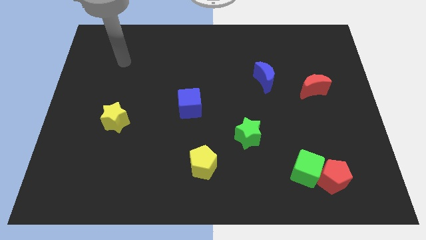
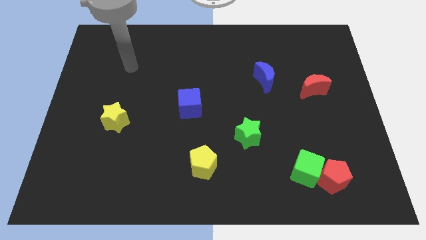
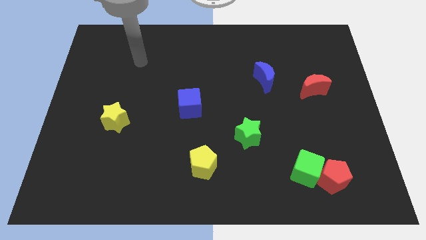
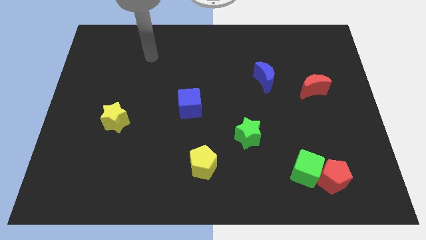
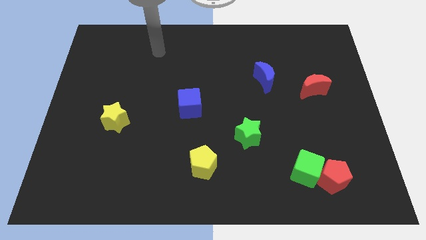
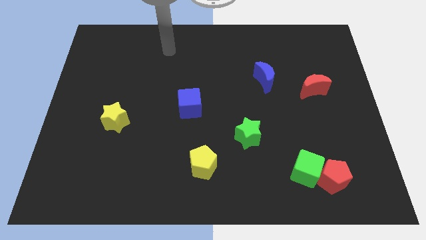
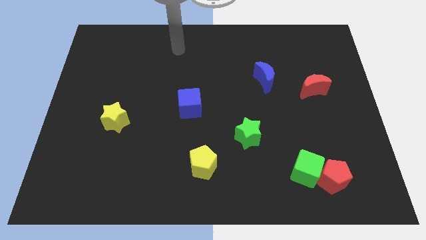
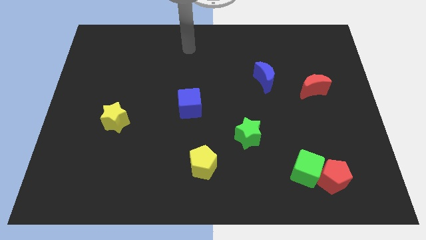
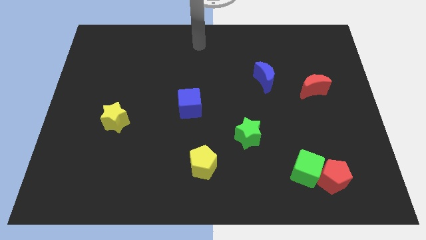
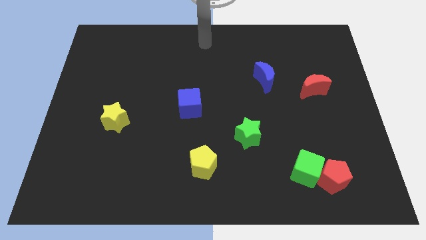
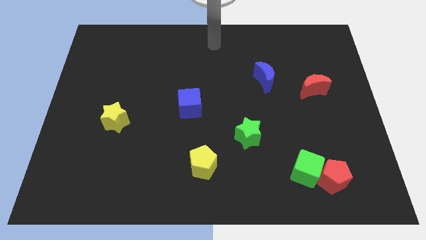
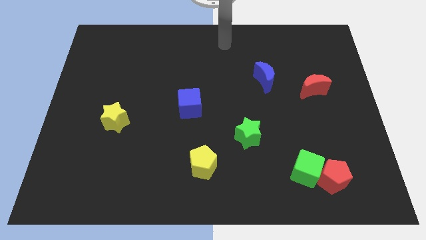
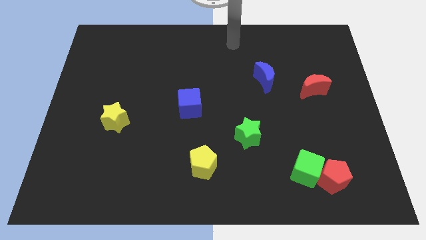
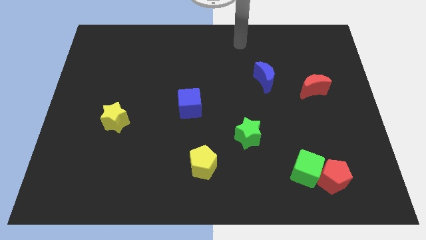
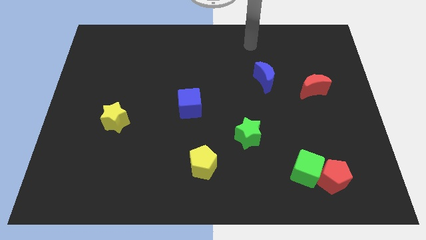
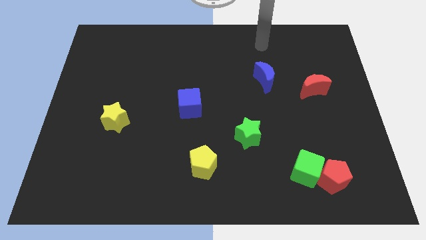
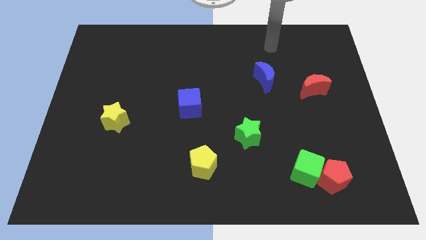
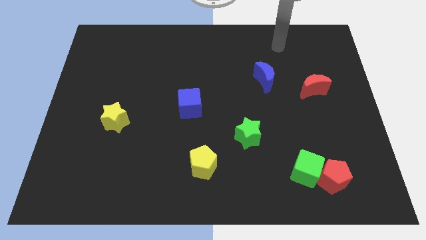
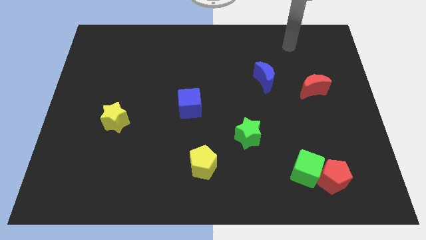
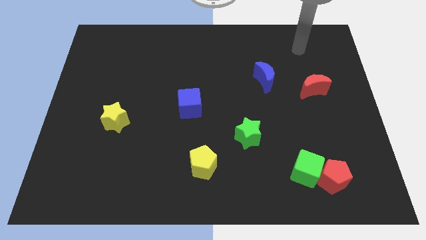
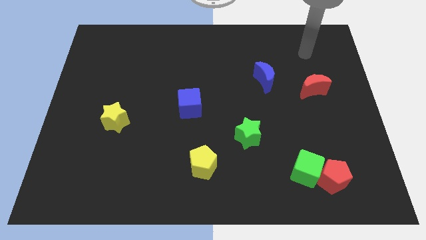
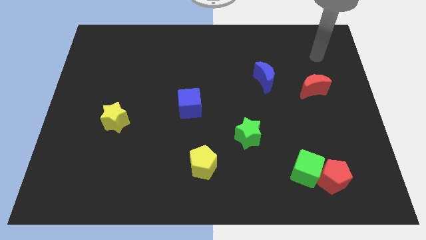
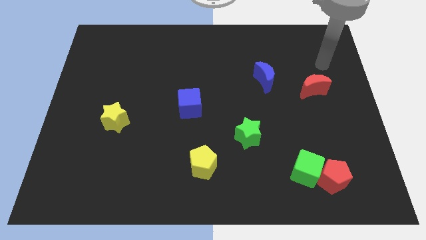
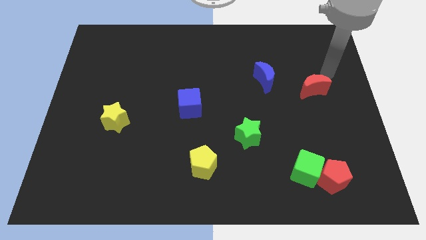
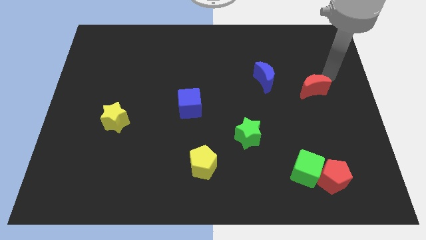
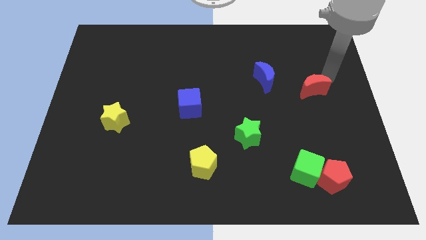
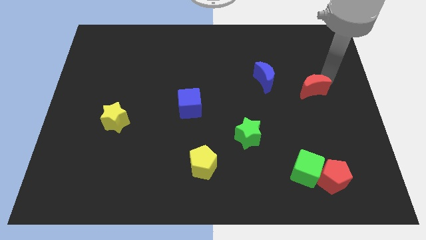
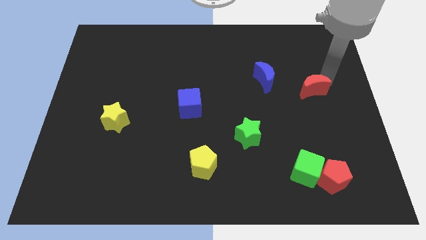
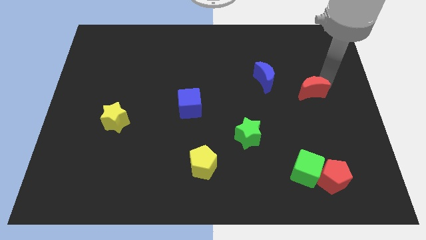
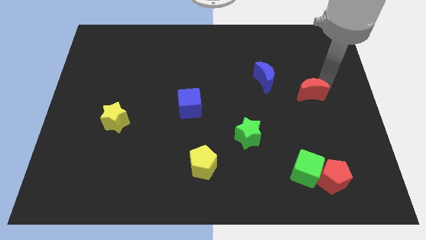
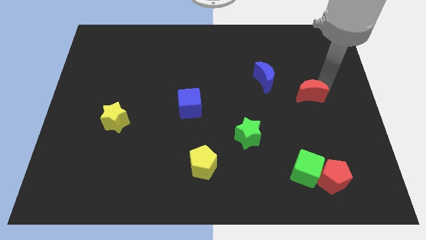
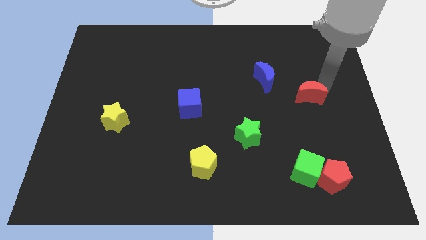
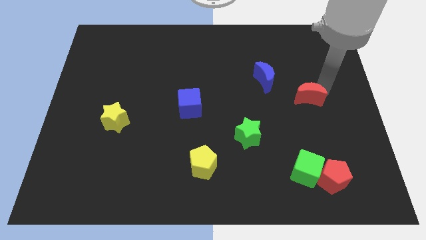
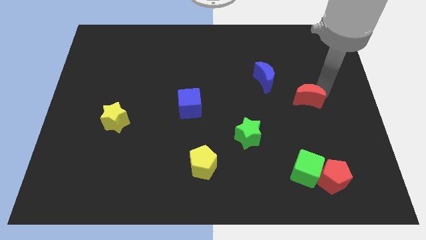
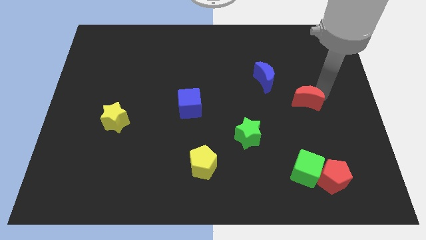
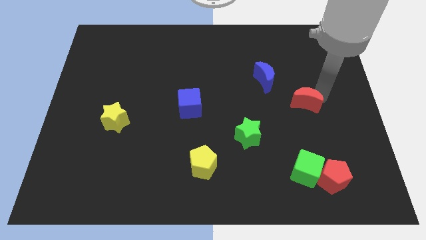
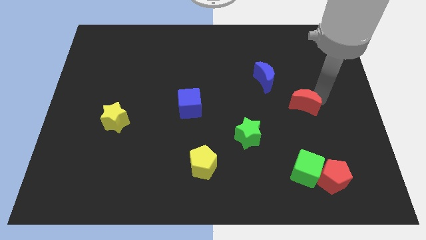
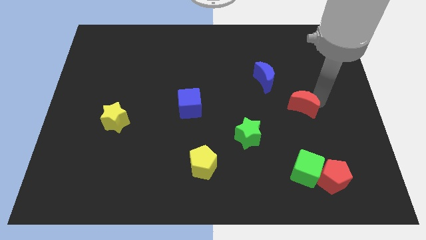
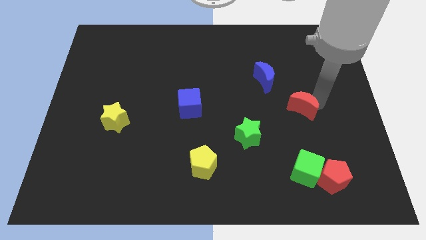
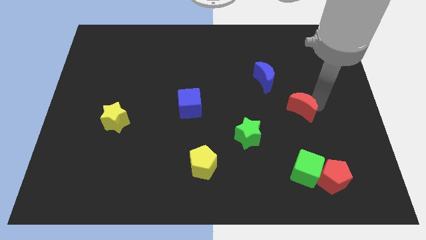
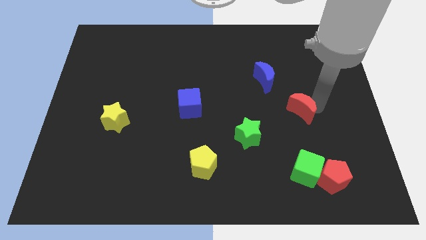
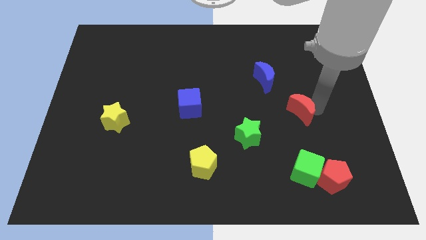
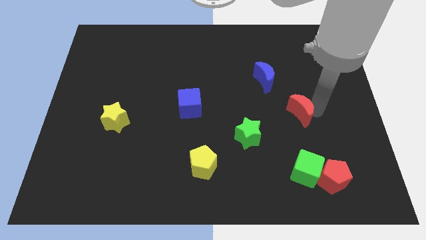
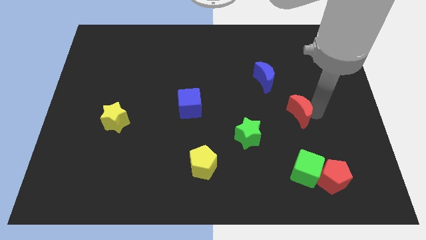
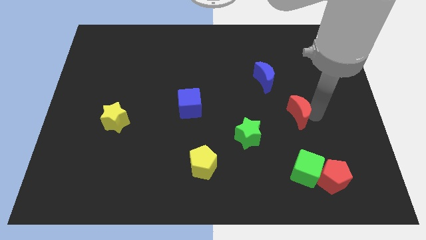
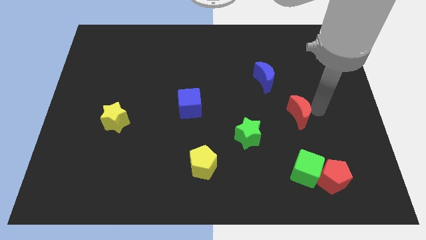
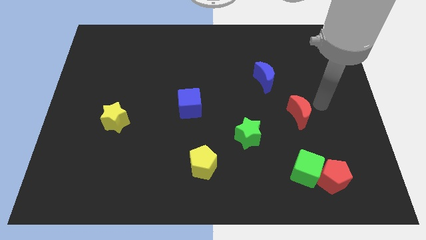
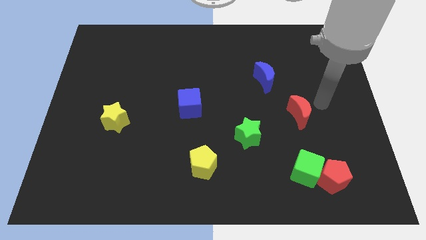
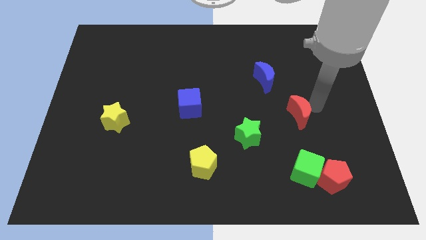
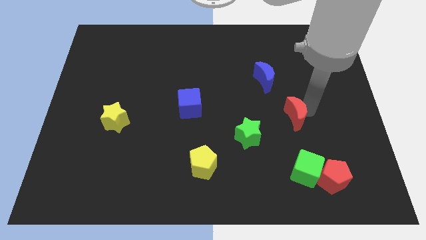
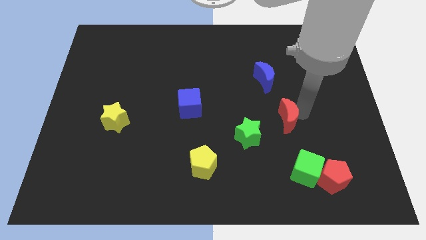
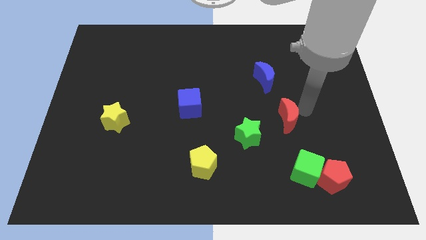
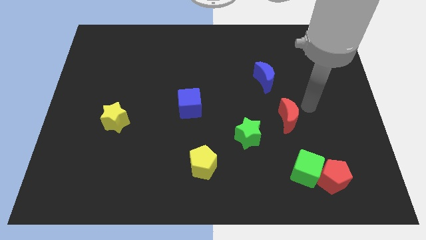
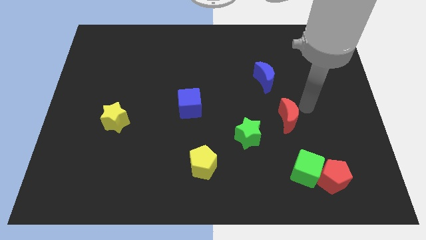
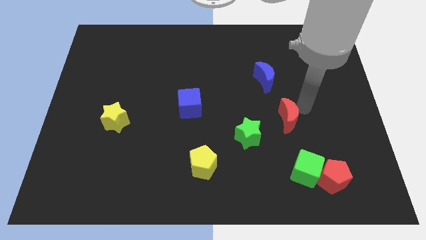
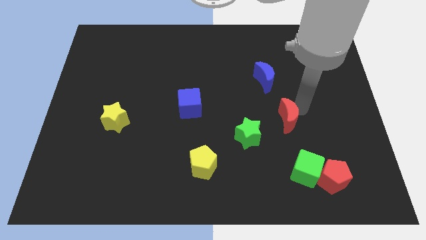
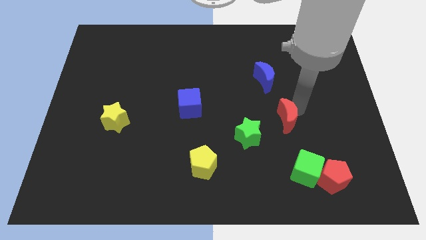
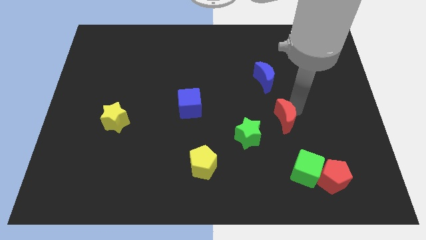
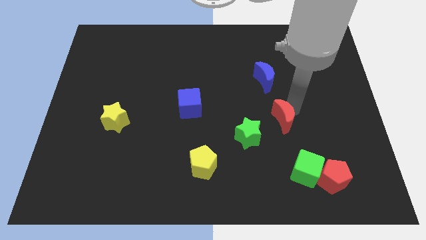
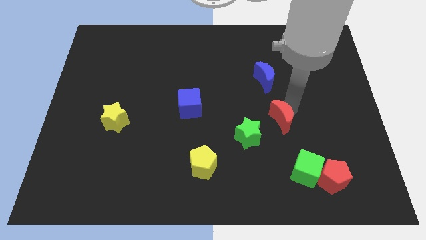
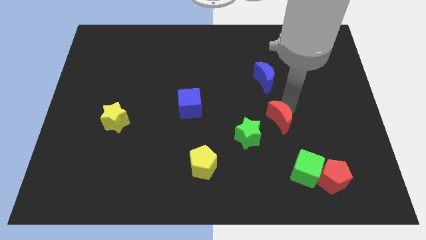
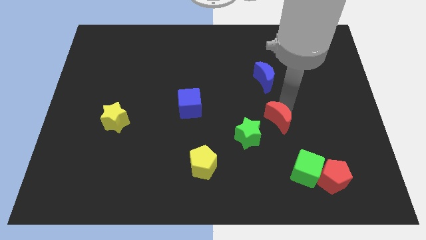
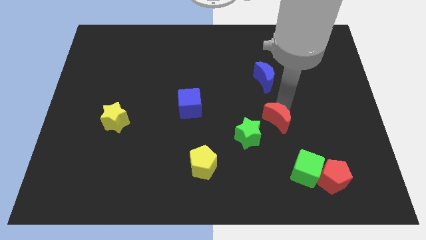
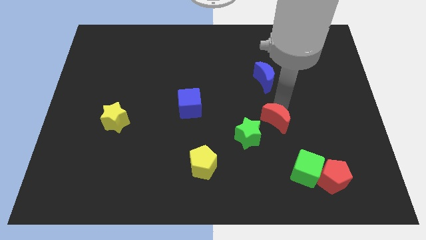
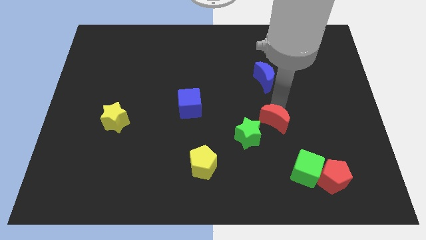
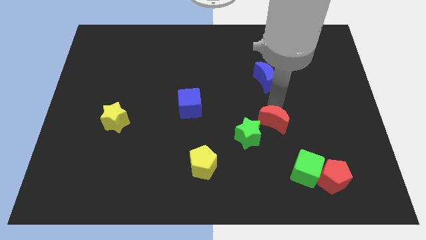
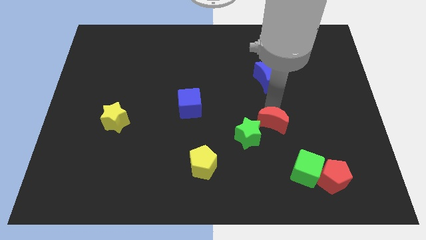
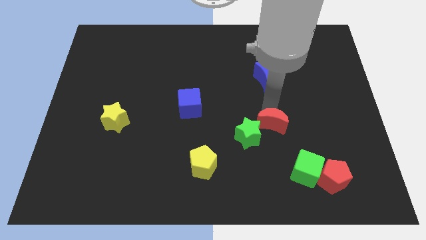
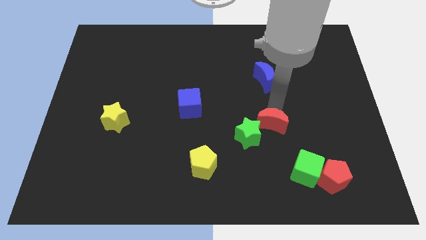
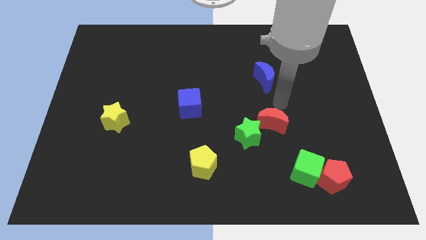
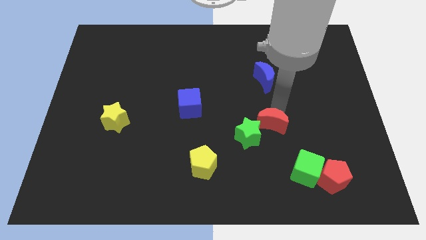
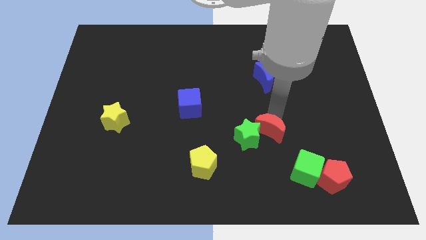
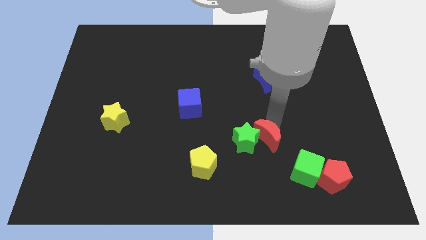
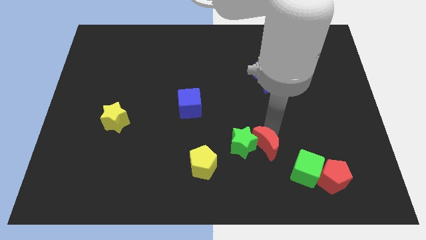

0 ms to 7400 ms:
move the red moon down and then left

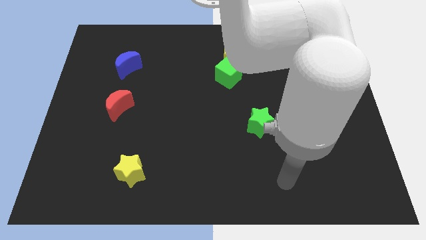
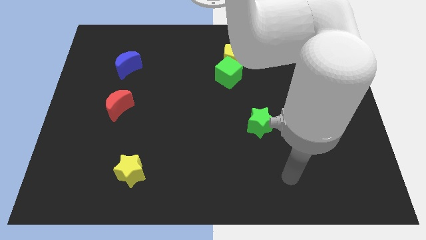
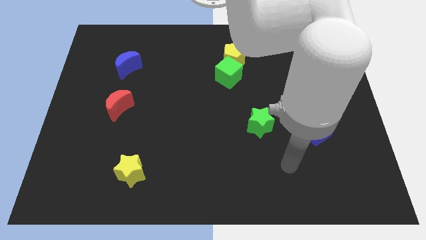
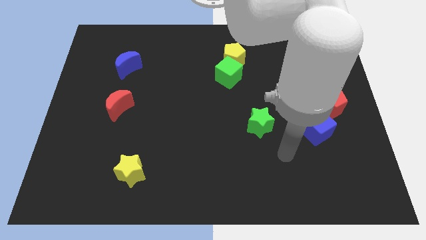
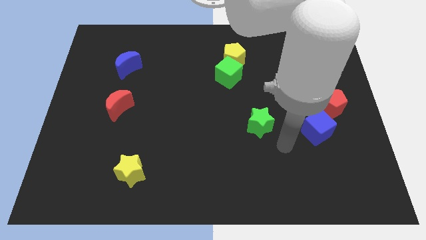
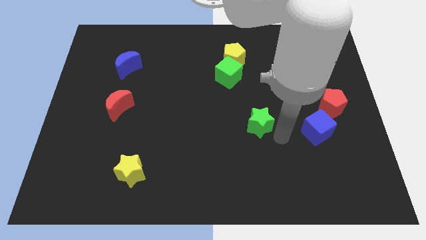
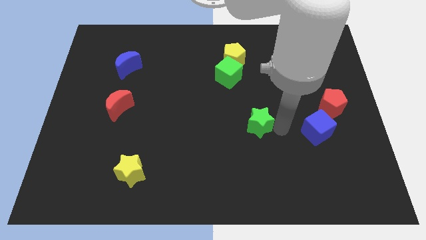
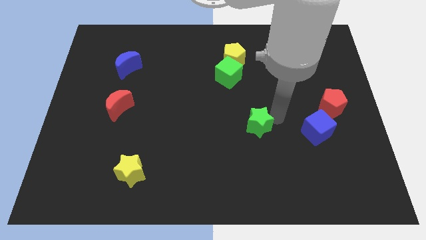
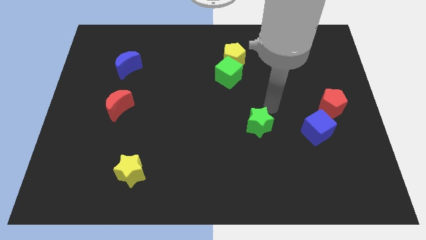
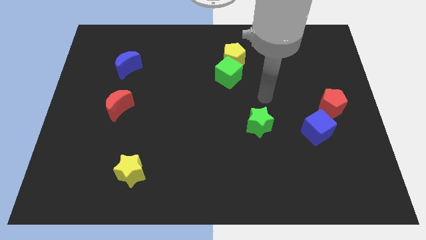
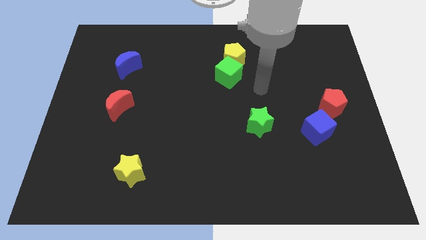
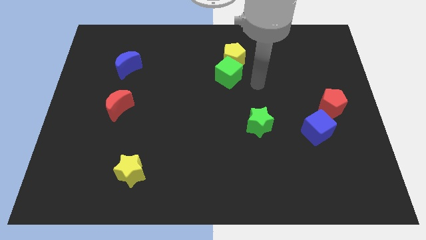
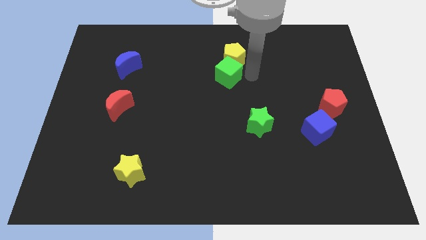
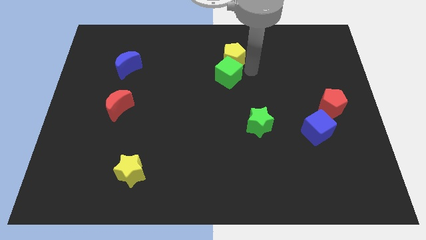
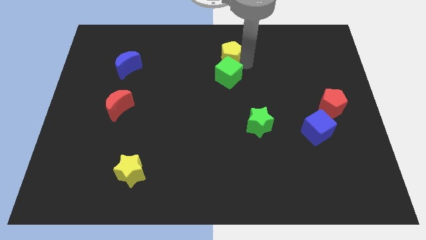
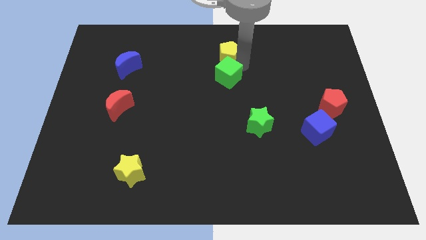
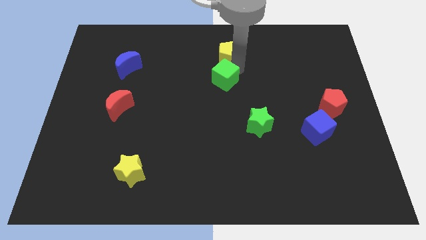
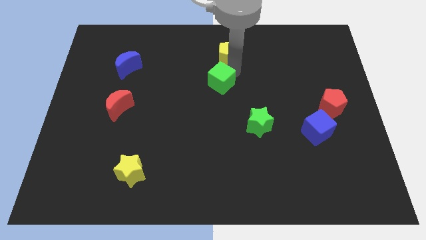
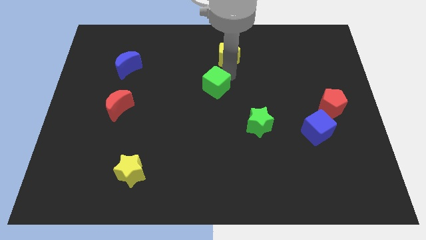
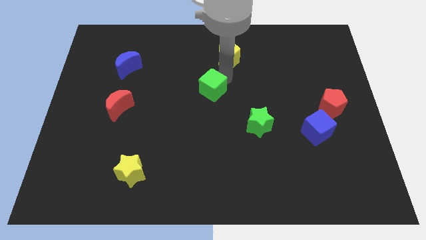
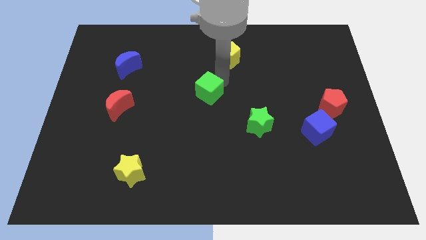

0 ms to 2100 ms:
slide the green cube slightly downwards and left diagonally
